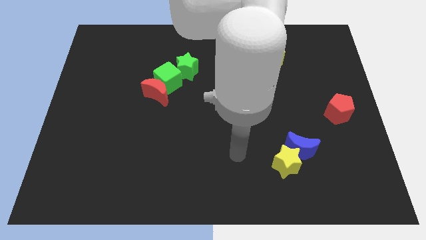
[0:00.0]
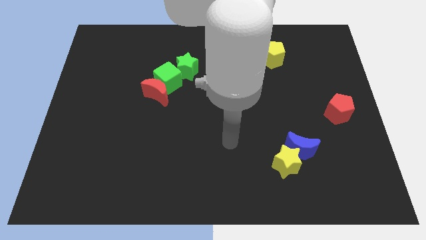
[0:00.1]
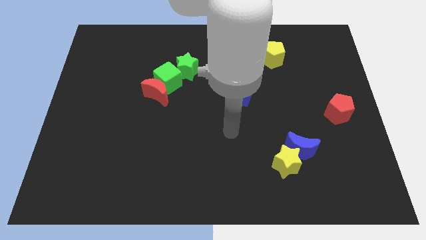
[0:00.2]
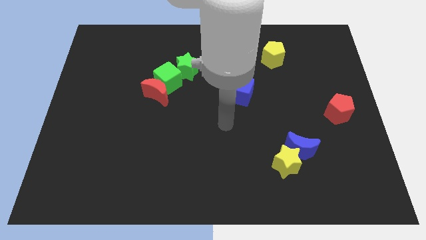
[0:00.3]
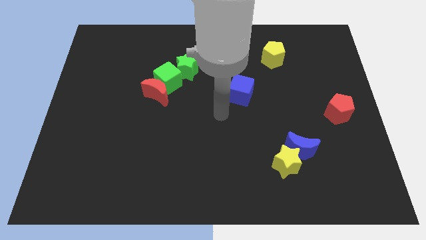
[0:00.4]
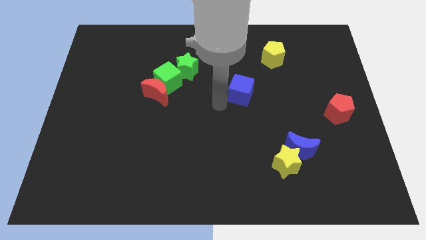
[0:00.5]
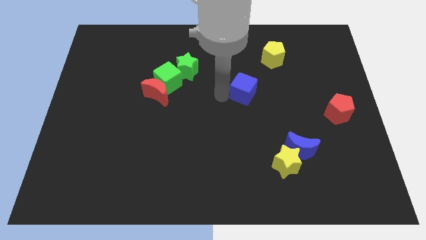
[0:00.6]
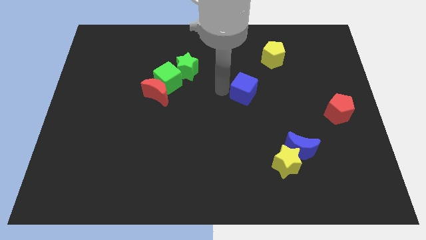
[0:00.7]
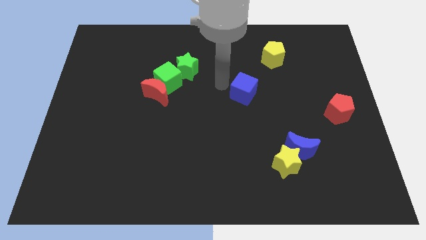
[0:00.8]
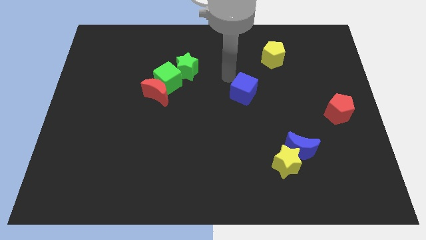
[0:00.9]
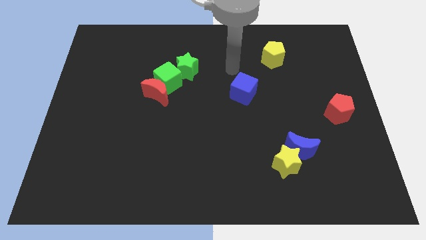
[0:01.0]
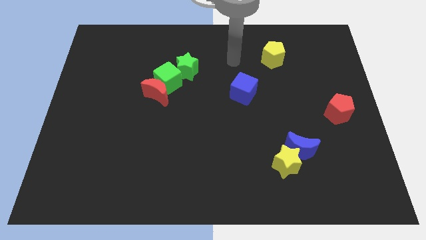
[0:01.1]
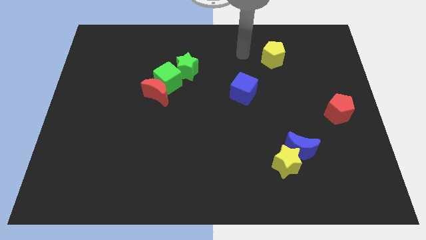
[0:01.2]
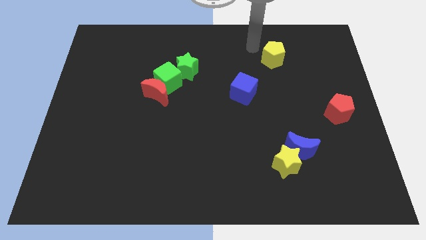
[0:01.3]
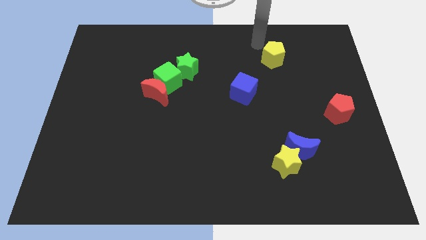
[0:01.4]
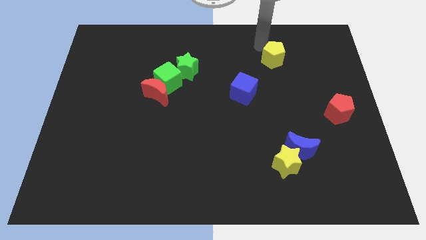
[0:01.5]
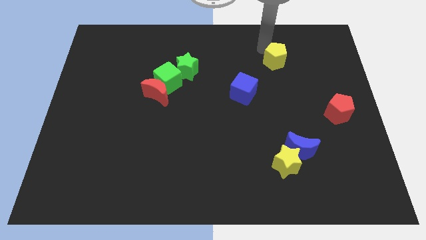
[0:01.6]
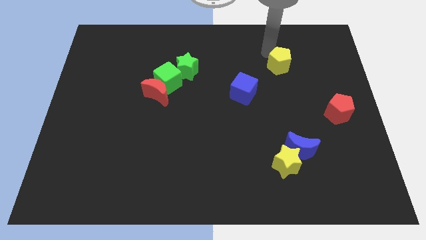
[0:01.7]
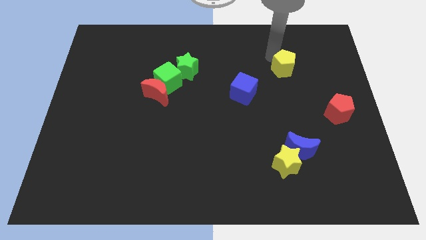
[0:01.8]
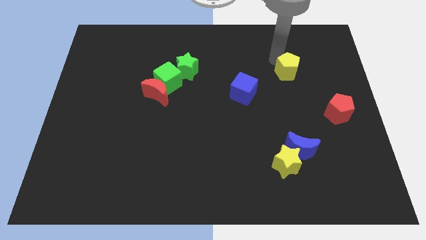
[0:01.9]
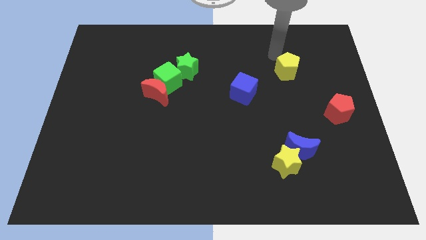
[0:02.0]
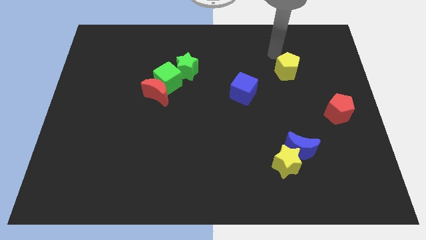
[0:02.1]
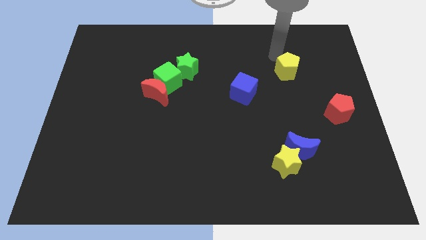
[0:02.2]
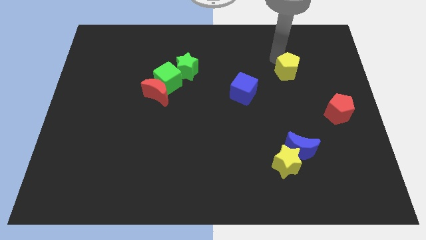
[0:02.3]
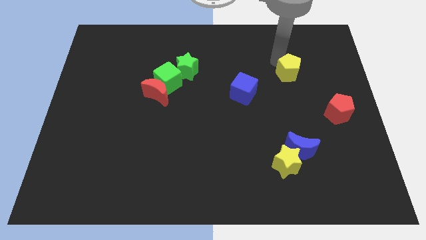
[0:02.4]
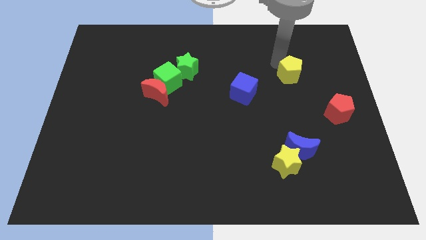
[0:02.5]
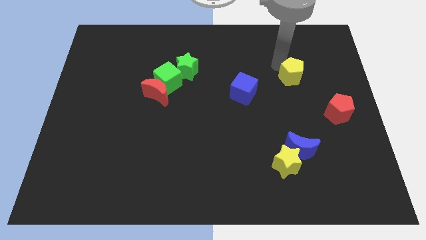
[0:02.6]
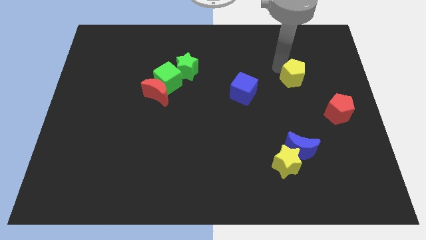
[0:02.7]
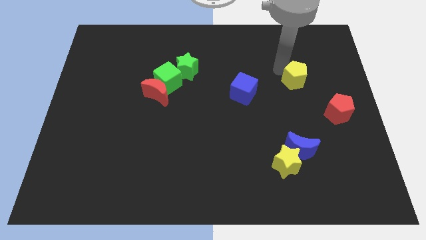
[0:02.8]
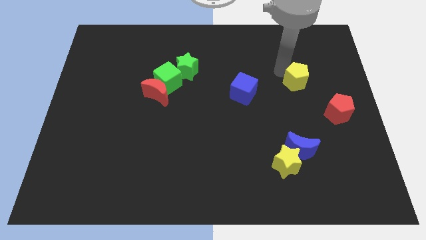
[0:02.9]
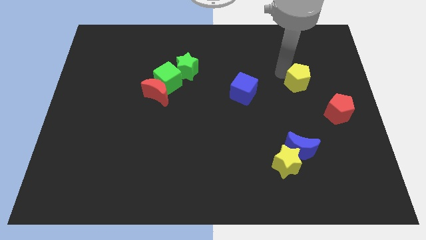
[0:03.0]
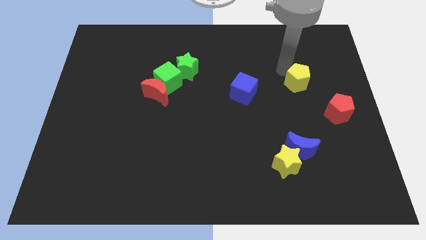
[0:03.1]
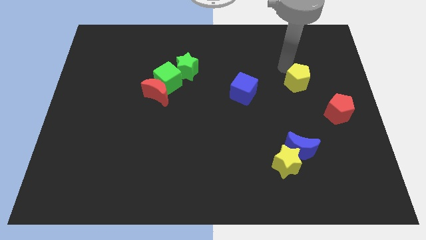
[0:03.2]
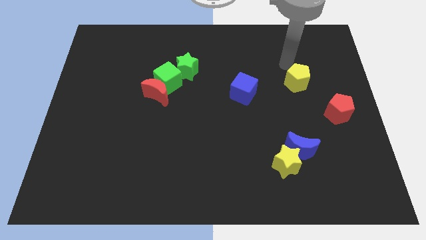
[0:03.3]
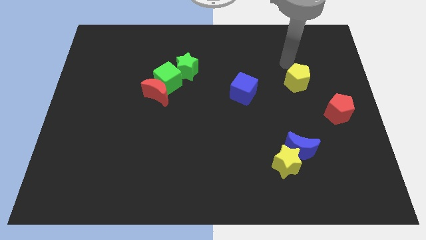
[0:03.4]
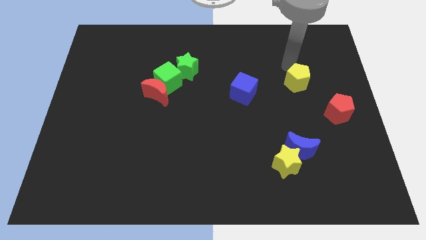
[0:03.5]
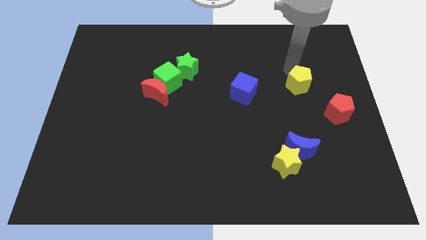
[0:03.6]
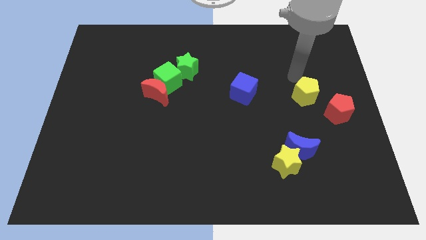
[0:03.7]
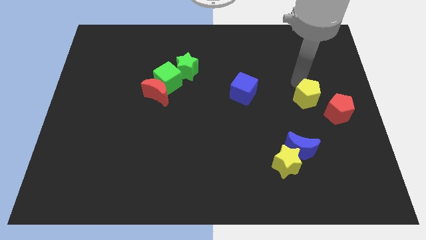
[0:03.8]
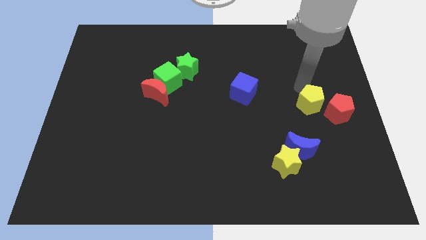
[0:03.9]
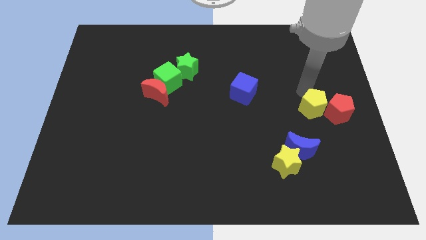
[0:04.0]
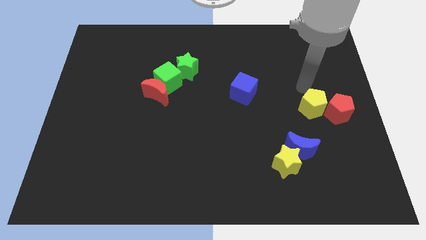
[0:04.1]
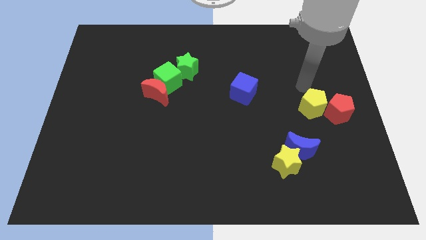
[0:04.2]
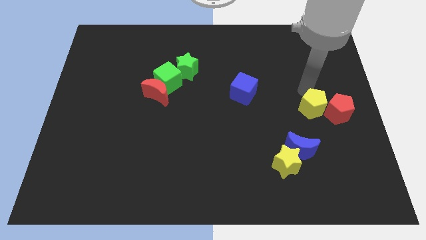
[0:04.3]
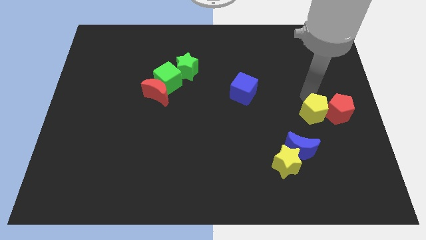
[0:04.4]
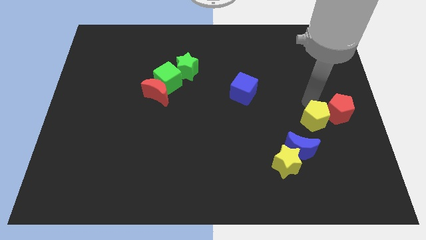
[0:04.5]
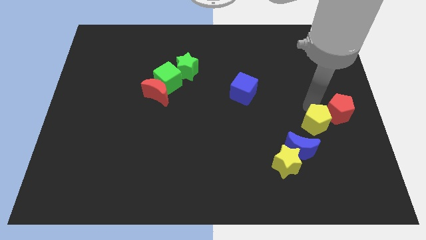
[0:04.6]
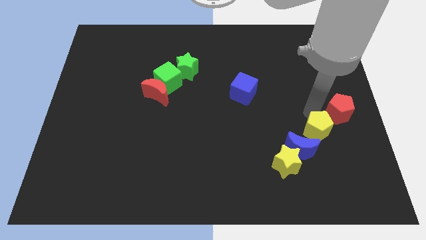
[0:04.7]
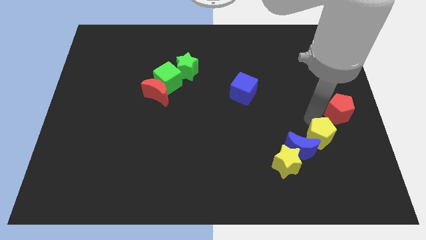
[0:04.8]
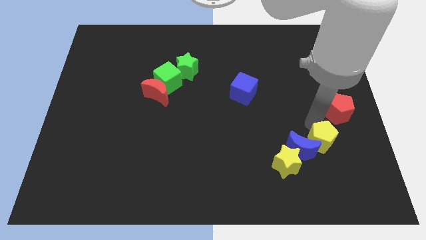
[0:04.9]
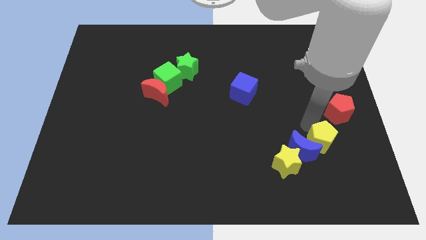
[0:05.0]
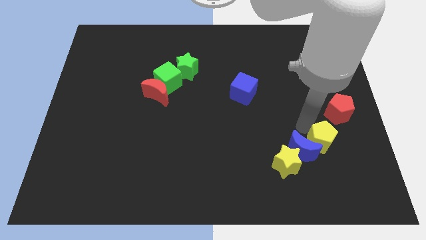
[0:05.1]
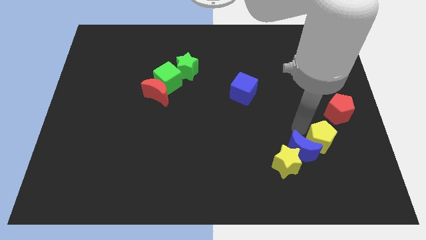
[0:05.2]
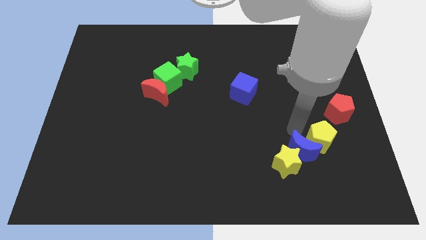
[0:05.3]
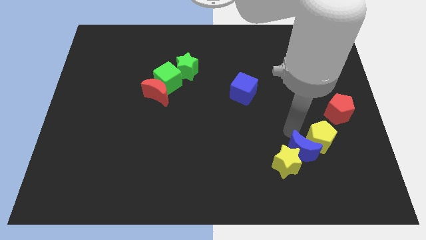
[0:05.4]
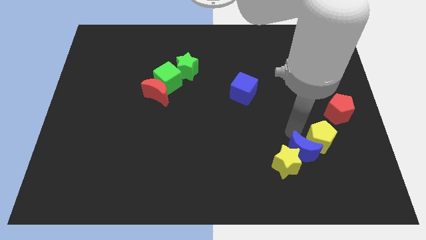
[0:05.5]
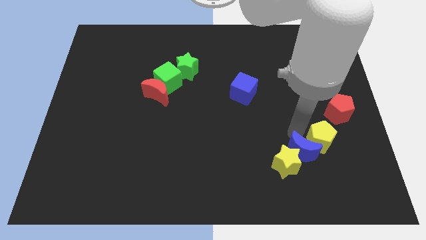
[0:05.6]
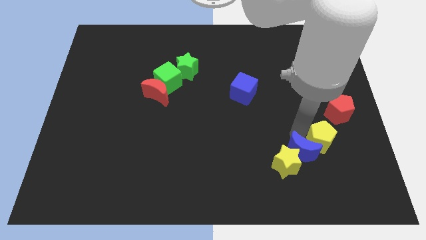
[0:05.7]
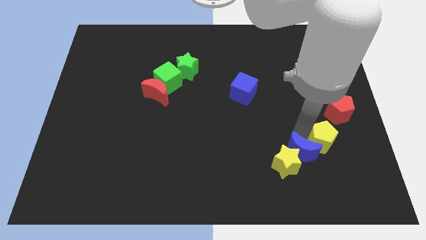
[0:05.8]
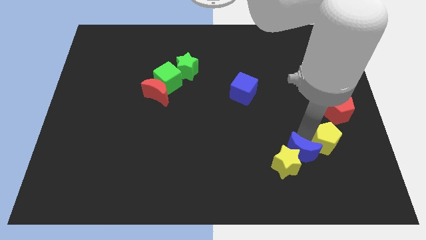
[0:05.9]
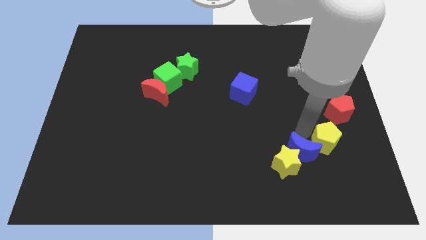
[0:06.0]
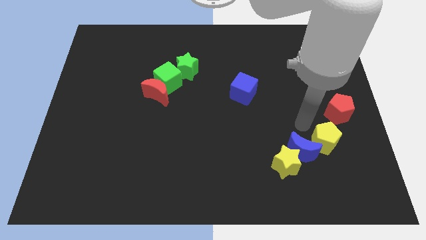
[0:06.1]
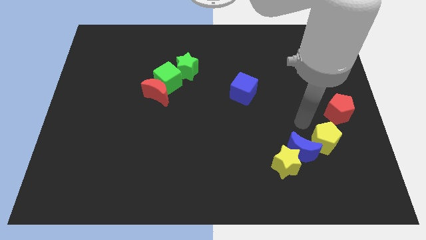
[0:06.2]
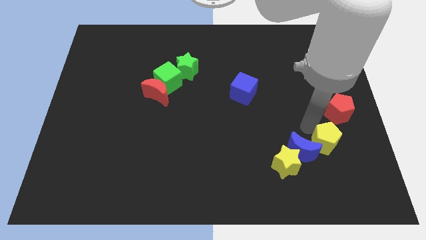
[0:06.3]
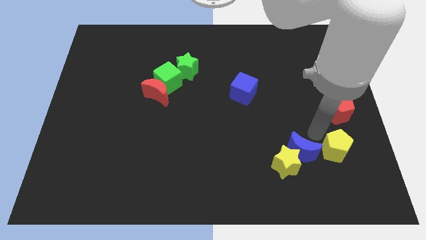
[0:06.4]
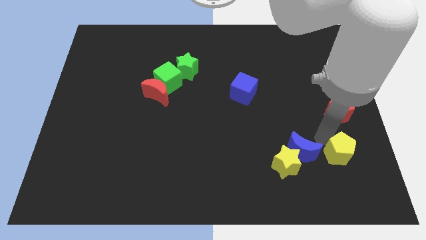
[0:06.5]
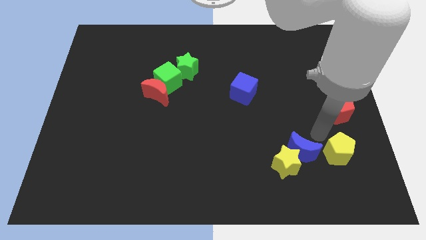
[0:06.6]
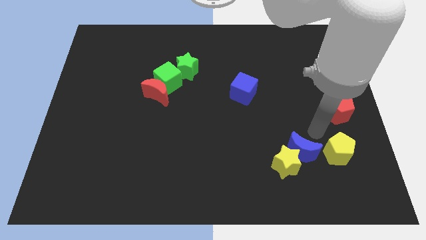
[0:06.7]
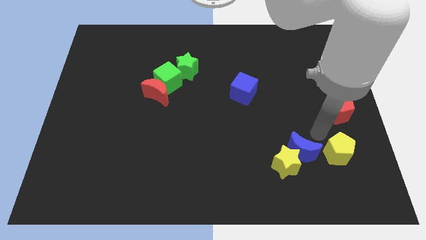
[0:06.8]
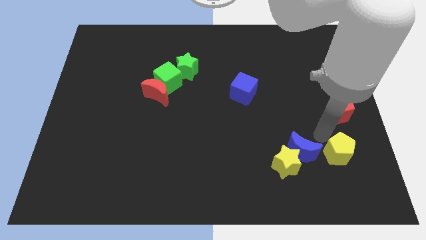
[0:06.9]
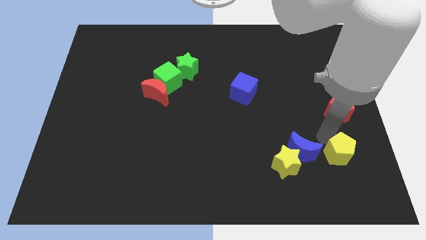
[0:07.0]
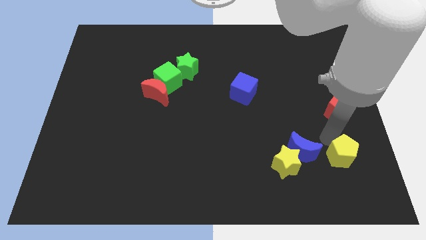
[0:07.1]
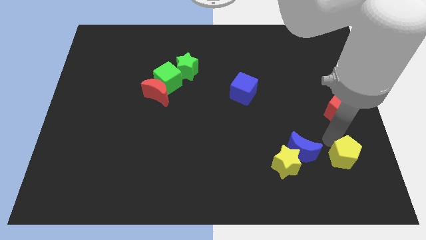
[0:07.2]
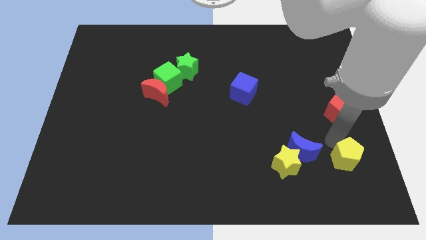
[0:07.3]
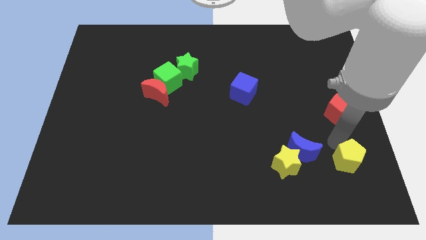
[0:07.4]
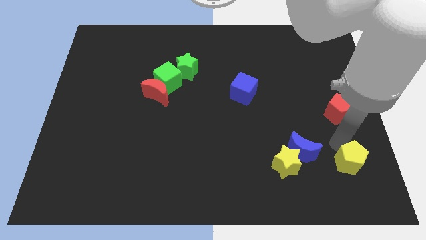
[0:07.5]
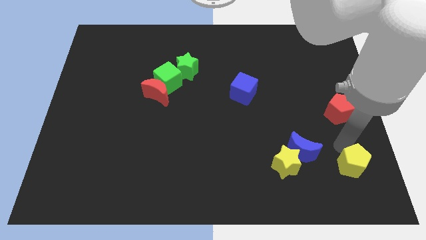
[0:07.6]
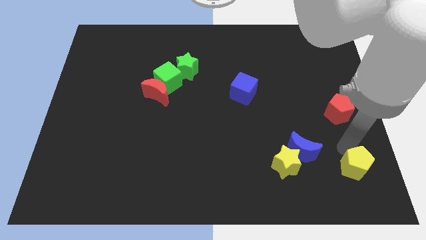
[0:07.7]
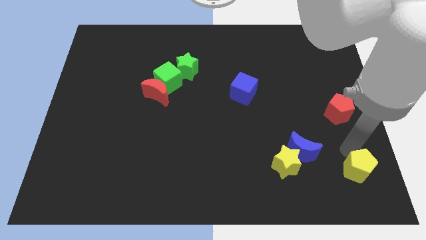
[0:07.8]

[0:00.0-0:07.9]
put the yellow pentagon to the bottom right corner
